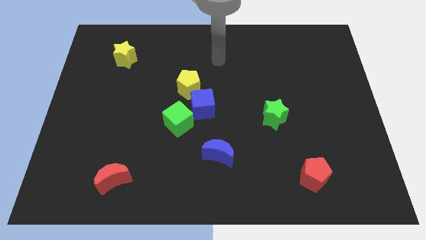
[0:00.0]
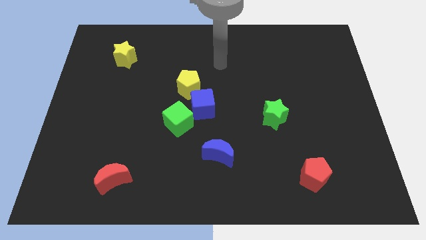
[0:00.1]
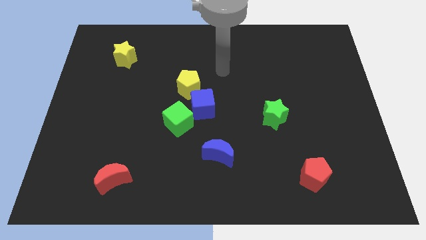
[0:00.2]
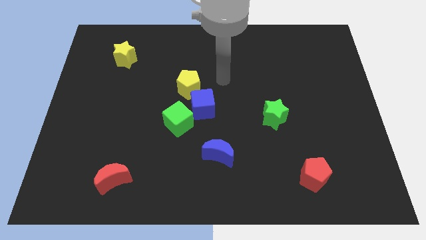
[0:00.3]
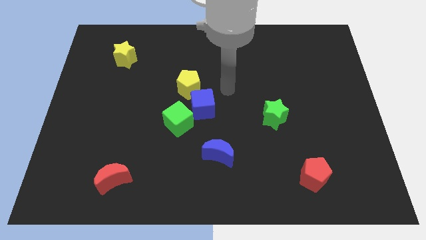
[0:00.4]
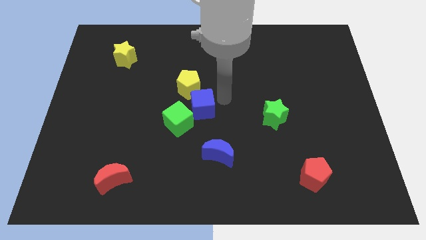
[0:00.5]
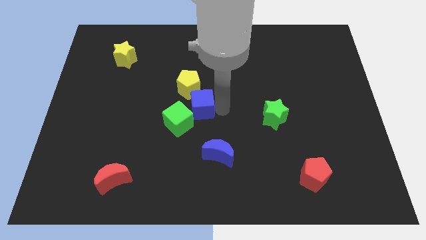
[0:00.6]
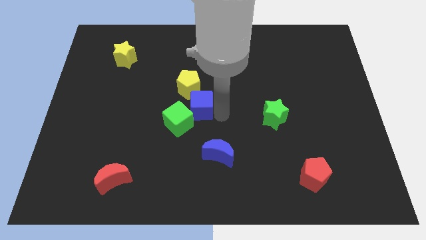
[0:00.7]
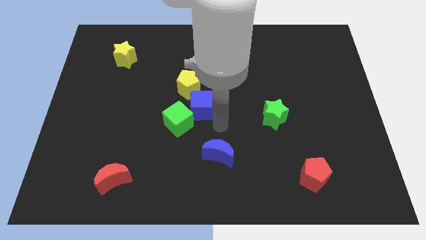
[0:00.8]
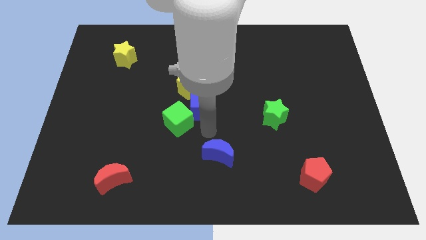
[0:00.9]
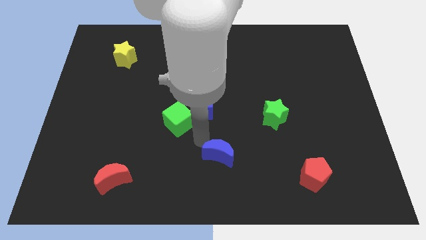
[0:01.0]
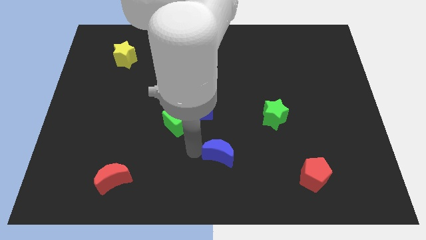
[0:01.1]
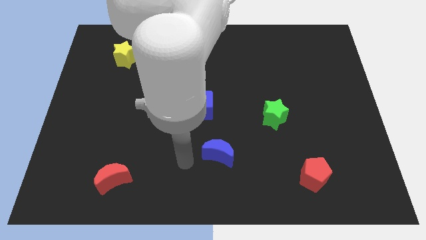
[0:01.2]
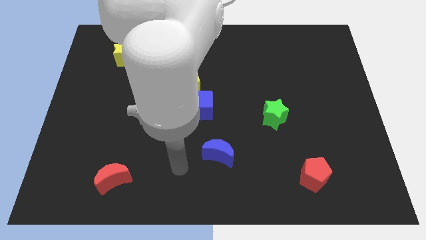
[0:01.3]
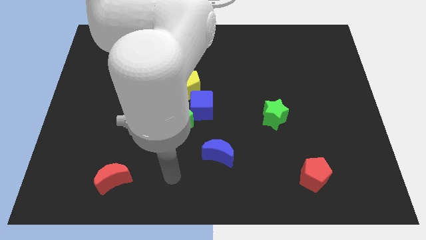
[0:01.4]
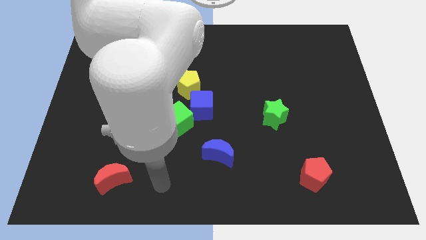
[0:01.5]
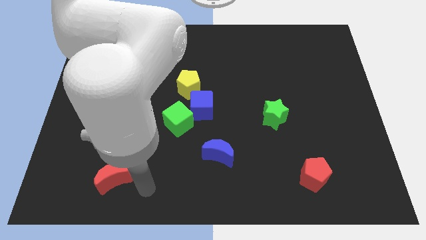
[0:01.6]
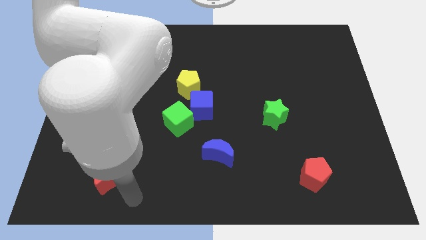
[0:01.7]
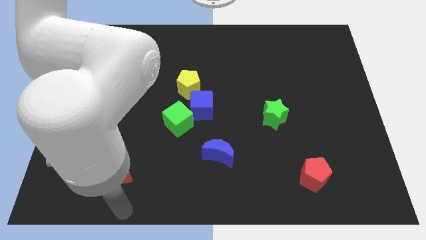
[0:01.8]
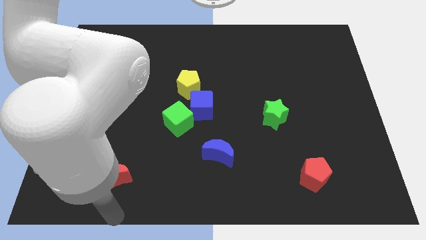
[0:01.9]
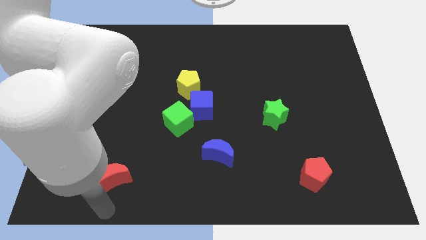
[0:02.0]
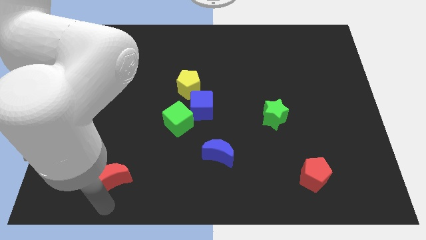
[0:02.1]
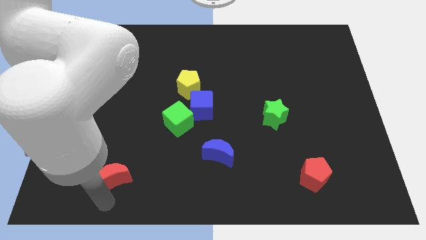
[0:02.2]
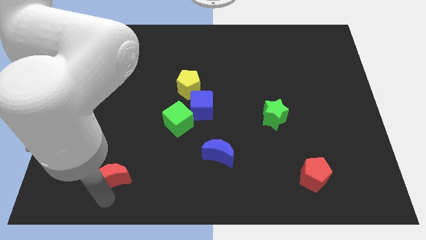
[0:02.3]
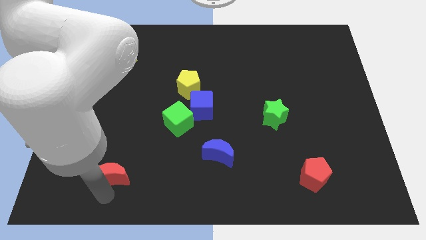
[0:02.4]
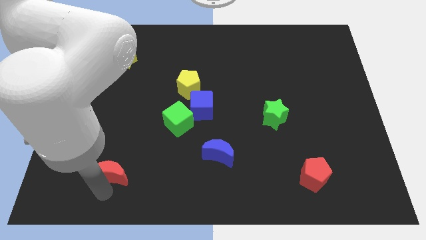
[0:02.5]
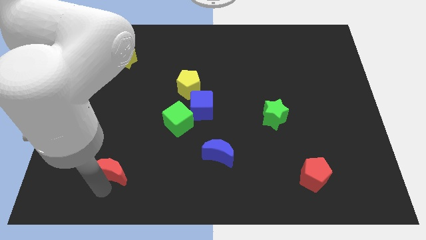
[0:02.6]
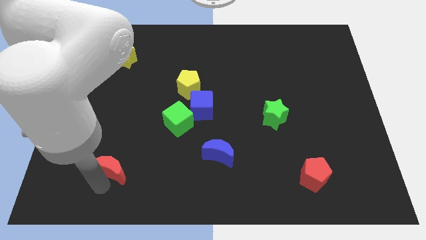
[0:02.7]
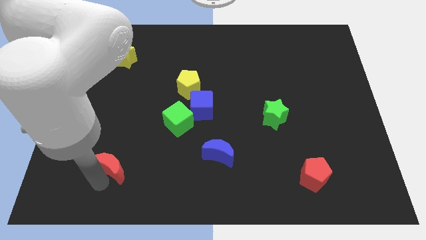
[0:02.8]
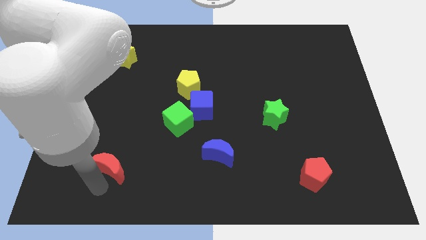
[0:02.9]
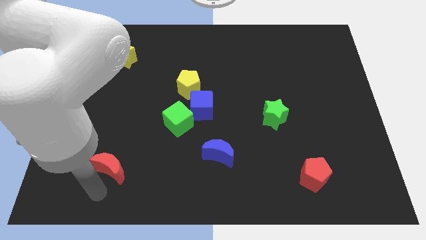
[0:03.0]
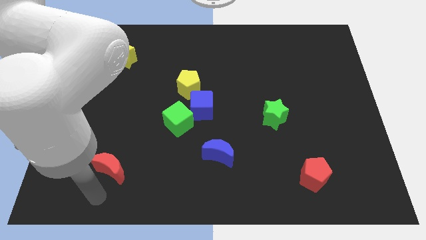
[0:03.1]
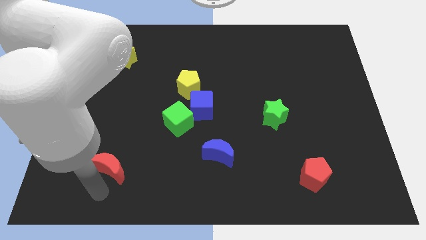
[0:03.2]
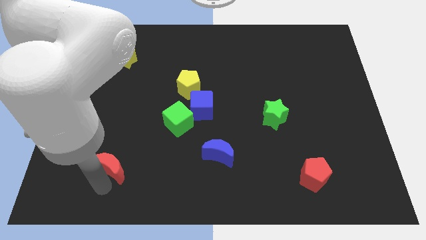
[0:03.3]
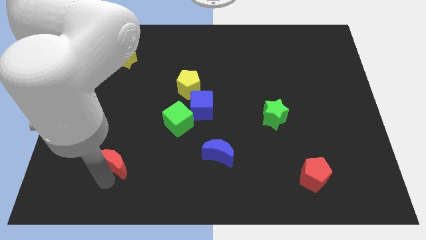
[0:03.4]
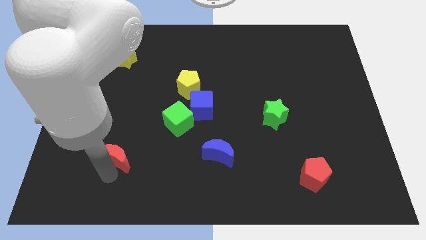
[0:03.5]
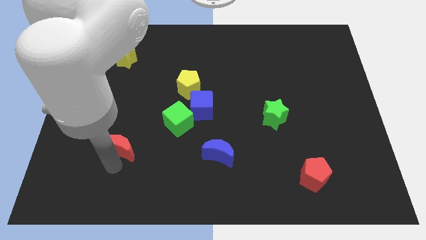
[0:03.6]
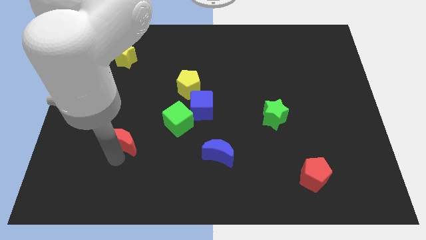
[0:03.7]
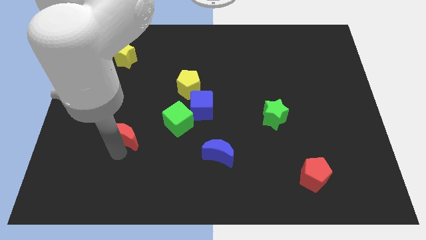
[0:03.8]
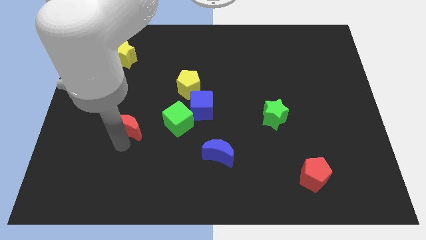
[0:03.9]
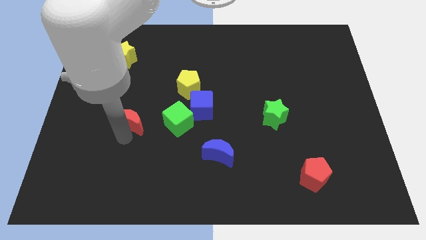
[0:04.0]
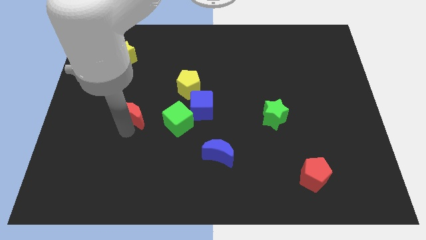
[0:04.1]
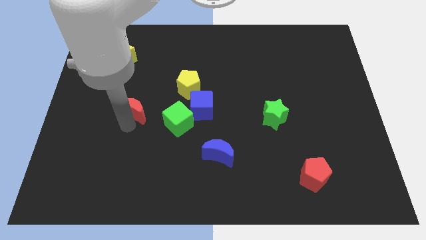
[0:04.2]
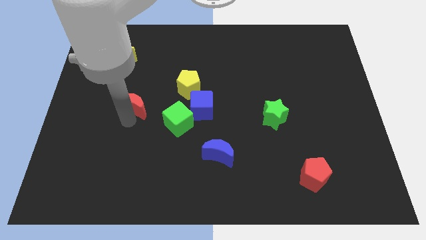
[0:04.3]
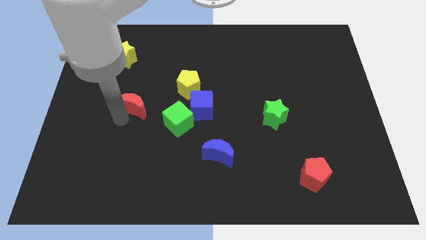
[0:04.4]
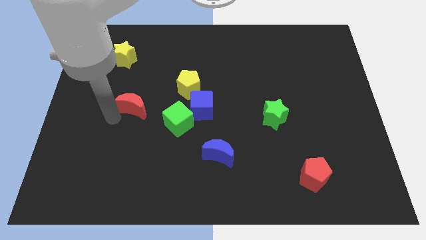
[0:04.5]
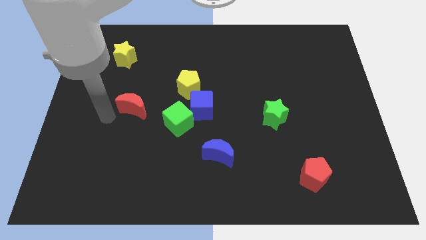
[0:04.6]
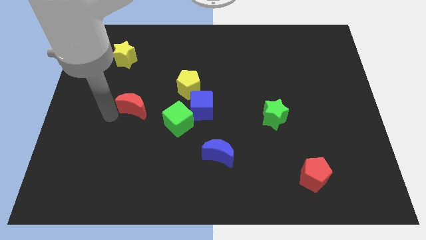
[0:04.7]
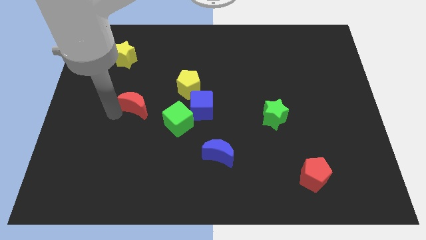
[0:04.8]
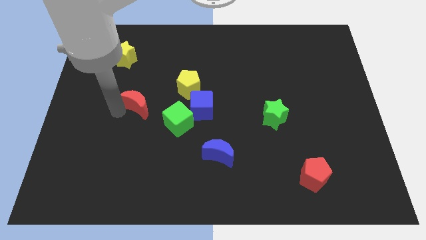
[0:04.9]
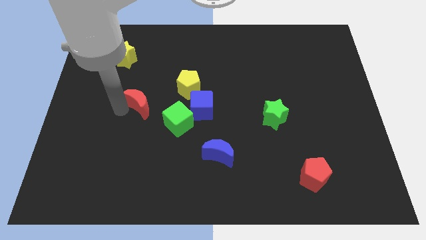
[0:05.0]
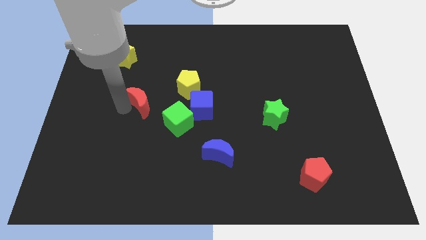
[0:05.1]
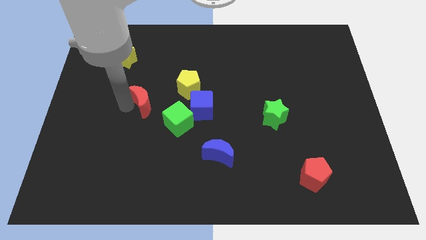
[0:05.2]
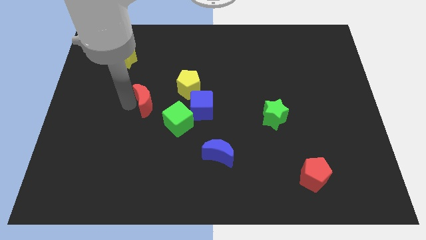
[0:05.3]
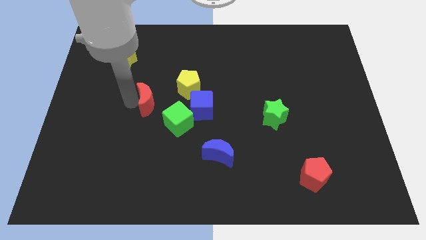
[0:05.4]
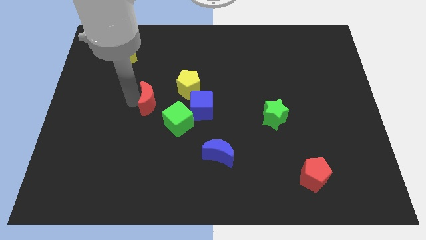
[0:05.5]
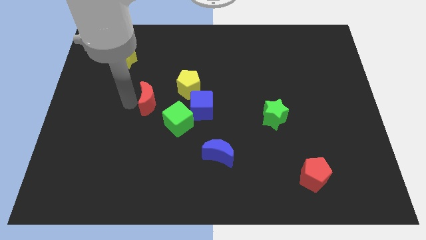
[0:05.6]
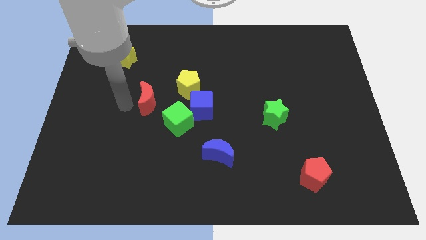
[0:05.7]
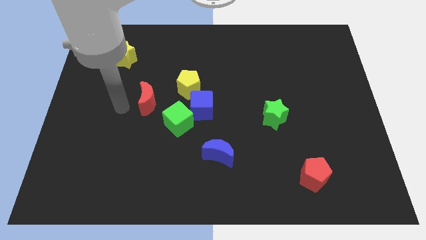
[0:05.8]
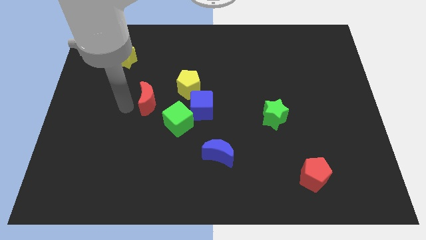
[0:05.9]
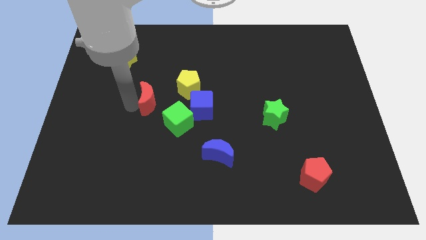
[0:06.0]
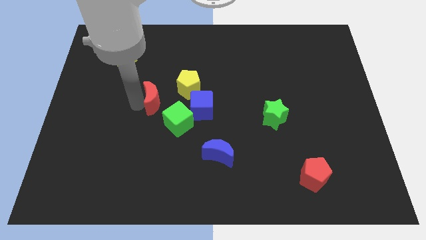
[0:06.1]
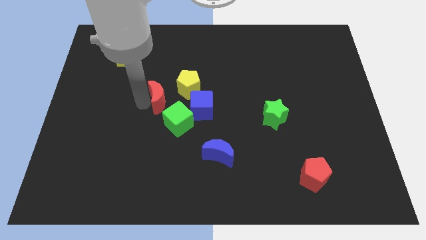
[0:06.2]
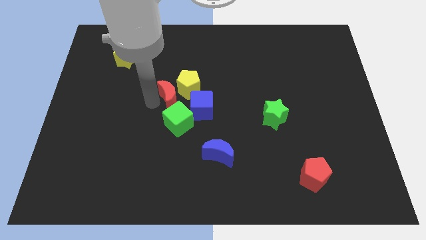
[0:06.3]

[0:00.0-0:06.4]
slide the red moon to the yellow pentagon

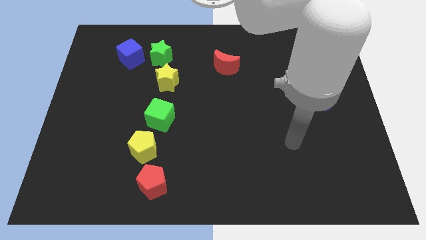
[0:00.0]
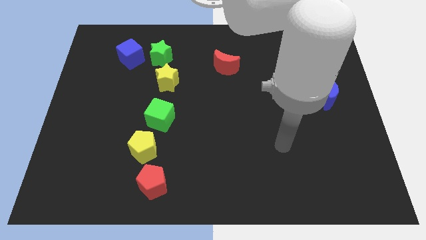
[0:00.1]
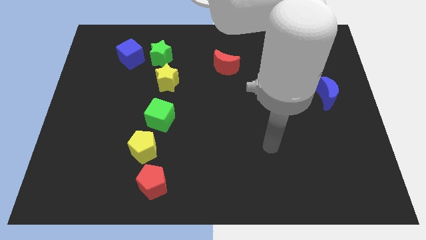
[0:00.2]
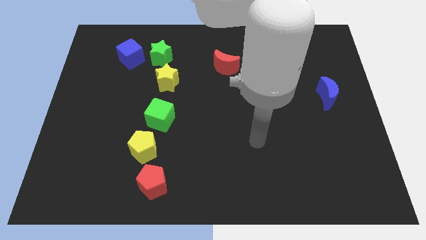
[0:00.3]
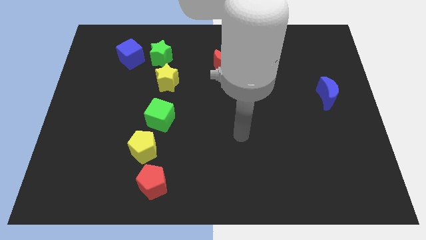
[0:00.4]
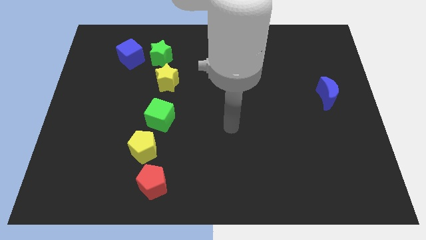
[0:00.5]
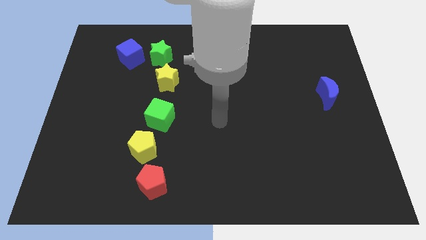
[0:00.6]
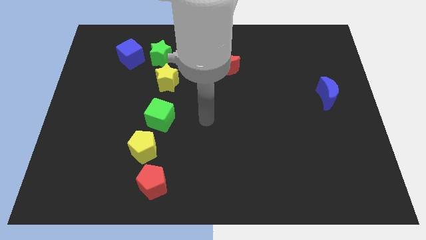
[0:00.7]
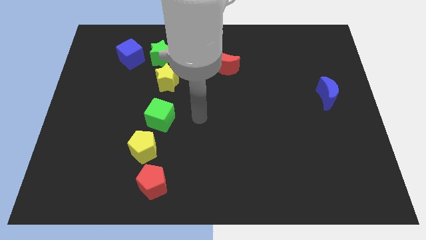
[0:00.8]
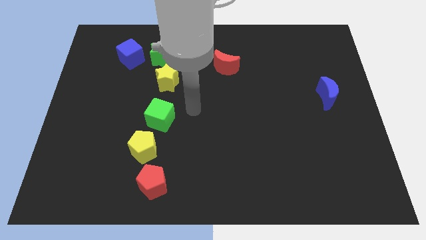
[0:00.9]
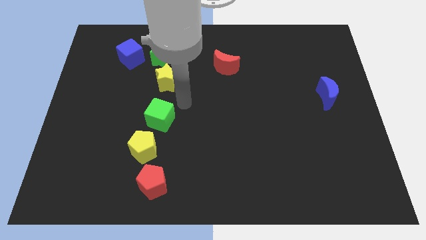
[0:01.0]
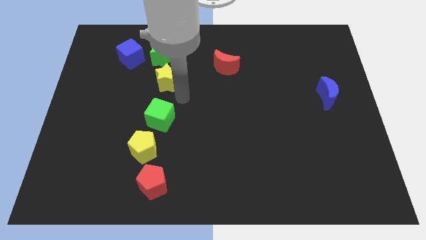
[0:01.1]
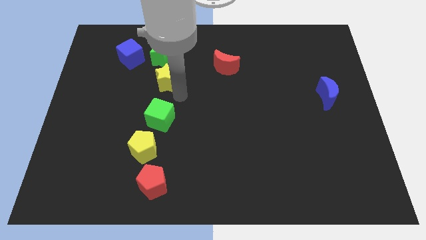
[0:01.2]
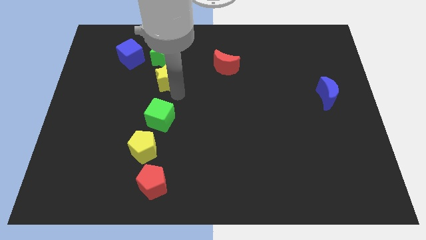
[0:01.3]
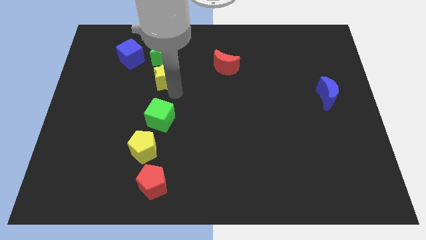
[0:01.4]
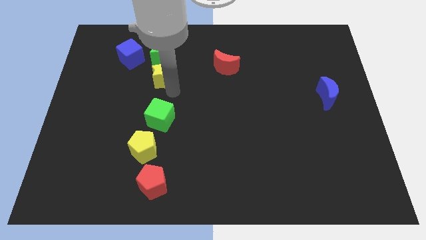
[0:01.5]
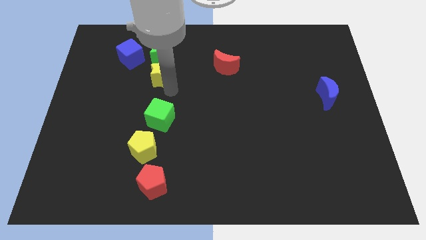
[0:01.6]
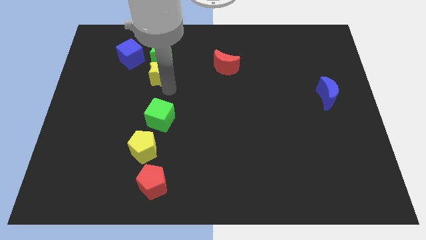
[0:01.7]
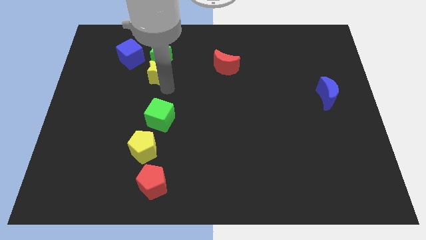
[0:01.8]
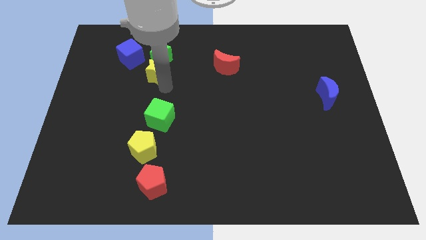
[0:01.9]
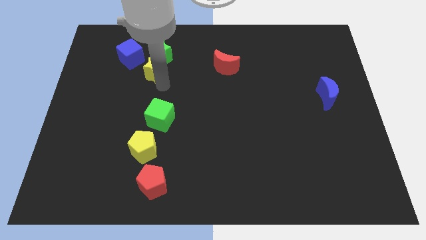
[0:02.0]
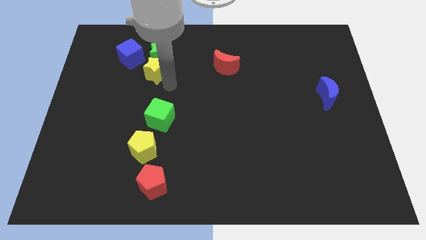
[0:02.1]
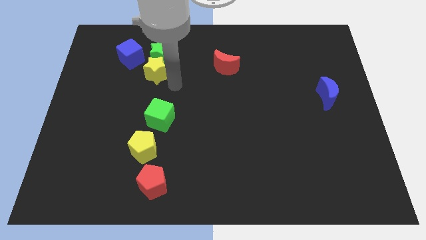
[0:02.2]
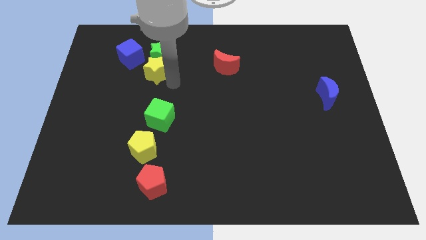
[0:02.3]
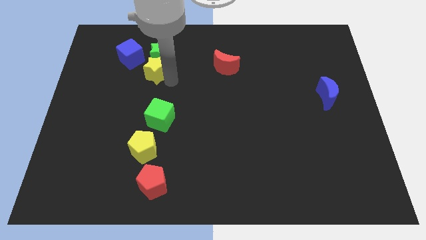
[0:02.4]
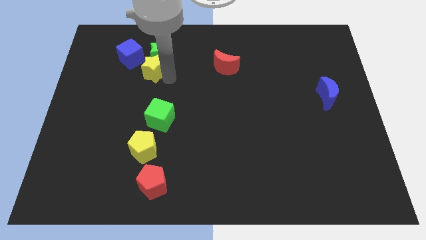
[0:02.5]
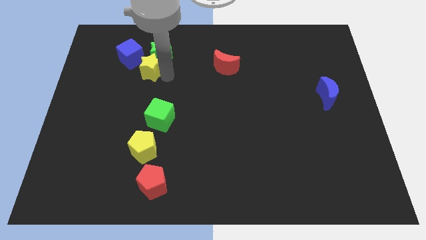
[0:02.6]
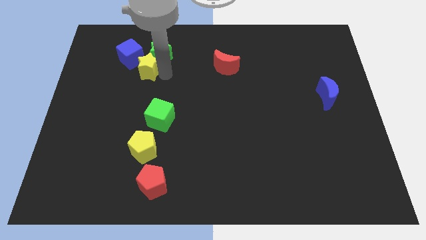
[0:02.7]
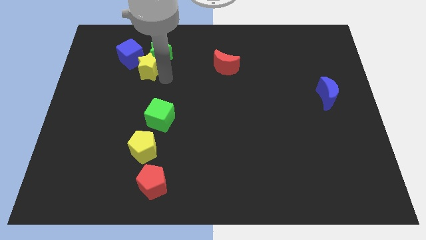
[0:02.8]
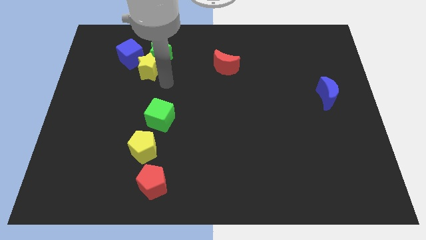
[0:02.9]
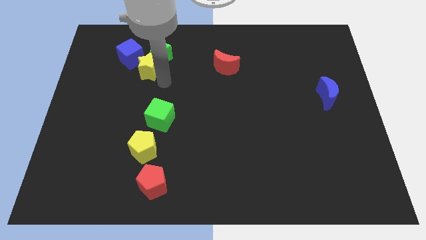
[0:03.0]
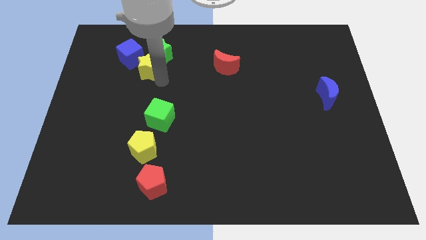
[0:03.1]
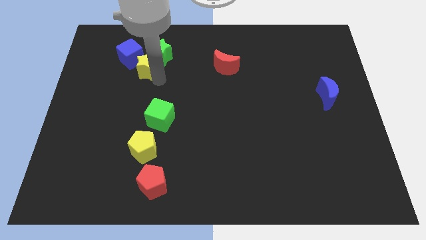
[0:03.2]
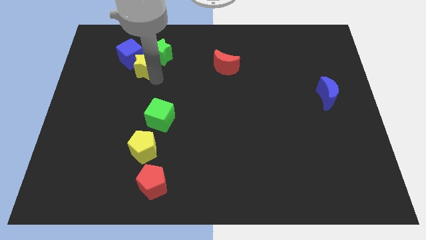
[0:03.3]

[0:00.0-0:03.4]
put the yellow star to the blue cube
